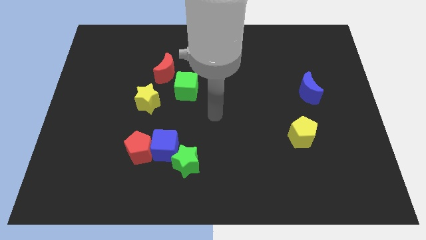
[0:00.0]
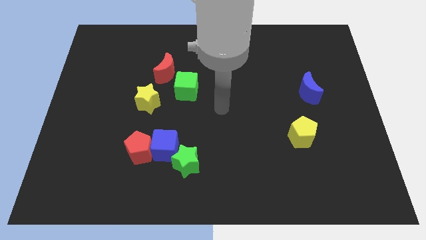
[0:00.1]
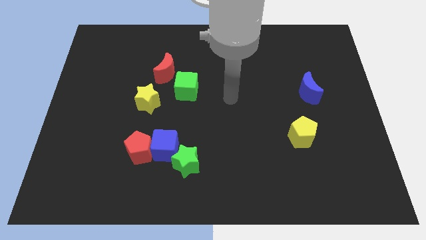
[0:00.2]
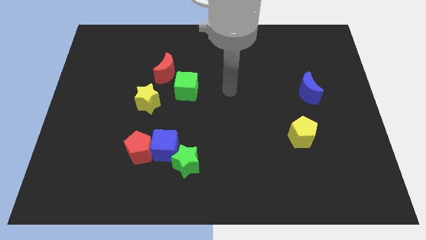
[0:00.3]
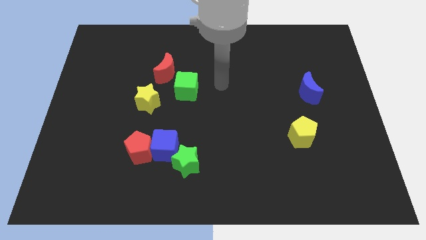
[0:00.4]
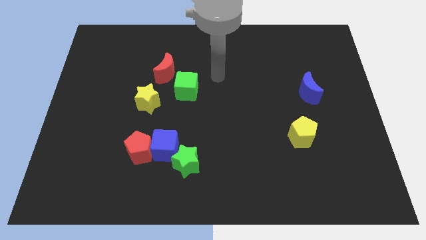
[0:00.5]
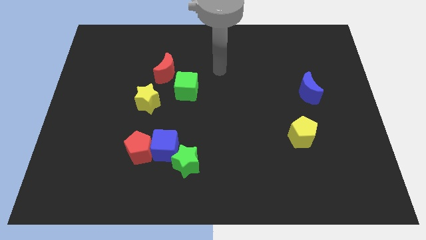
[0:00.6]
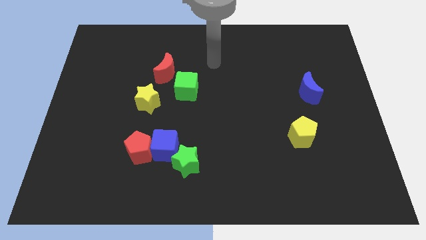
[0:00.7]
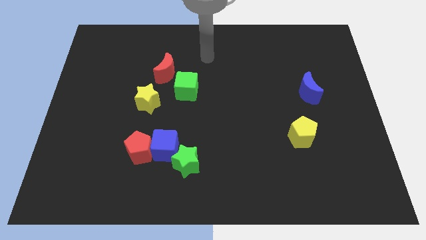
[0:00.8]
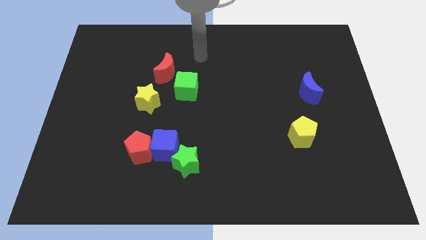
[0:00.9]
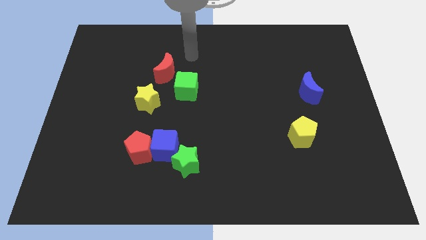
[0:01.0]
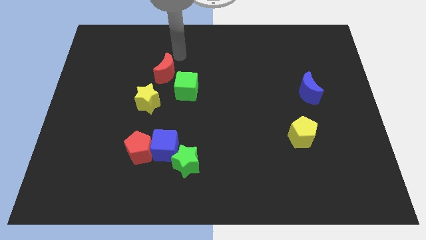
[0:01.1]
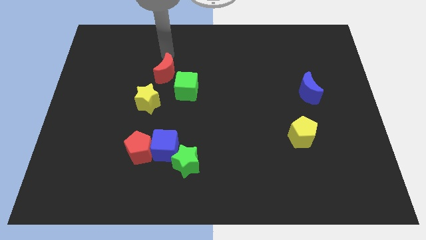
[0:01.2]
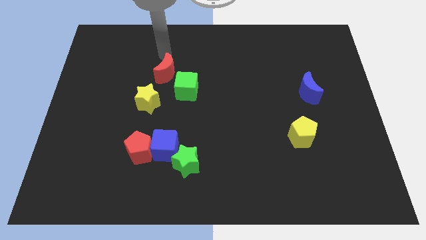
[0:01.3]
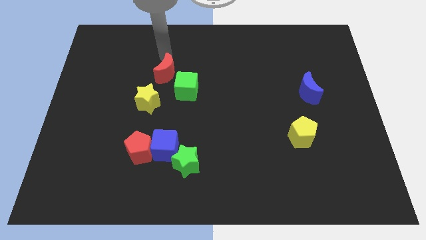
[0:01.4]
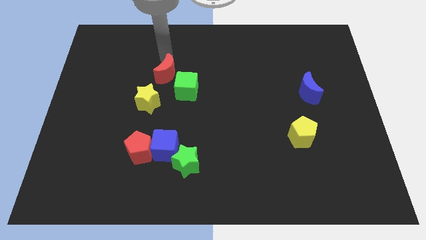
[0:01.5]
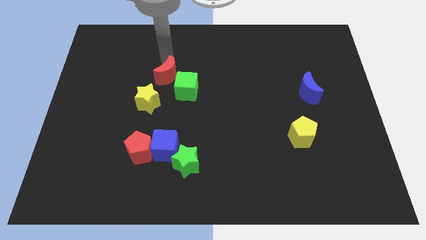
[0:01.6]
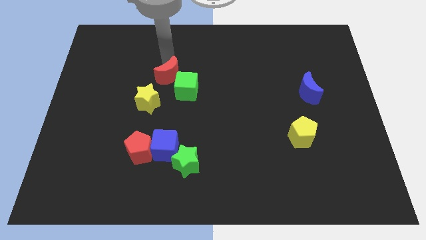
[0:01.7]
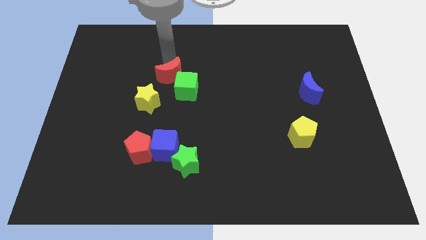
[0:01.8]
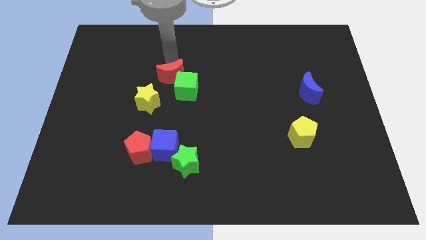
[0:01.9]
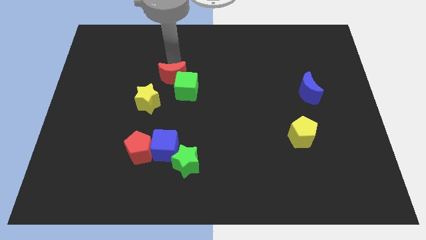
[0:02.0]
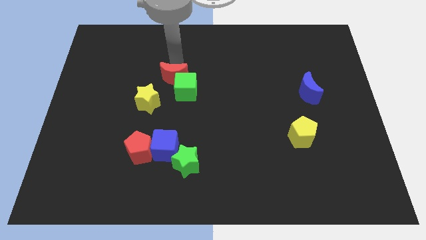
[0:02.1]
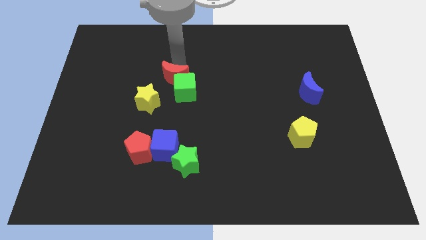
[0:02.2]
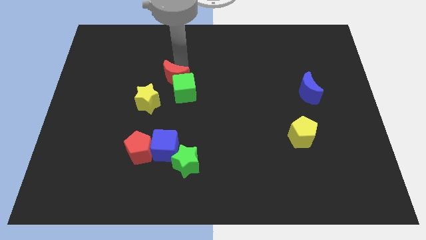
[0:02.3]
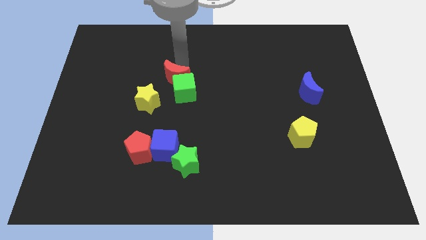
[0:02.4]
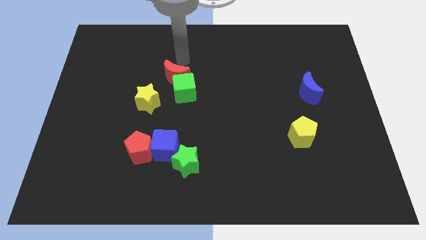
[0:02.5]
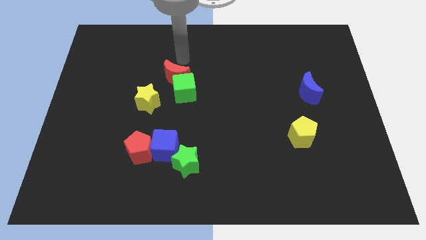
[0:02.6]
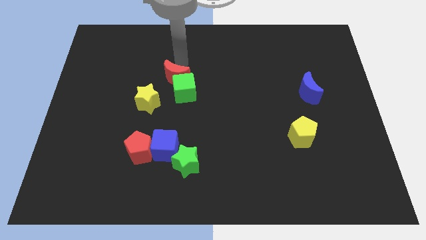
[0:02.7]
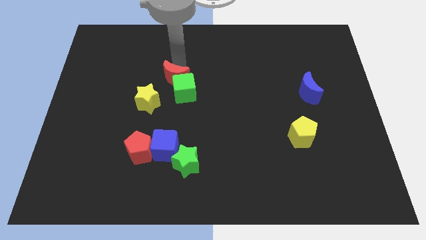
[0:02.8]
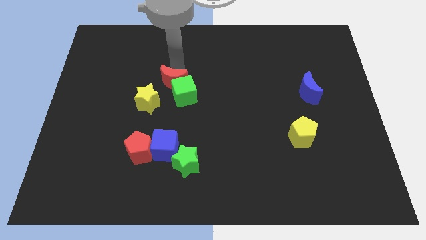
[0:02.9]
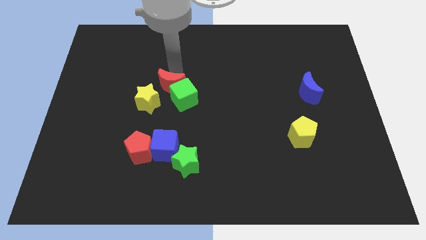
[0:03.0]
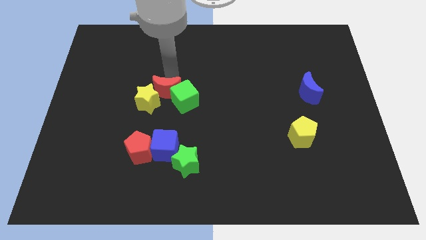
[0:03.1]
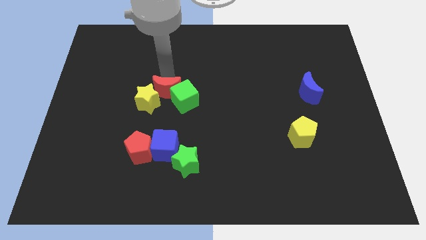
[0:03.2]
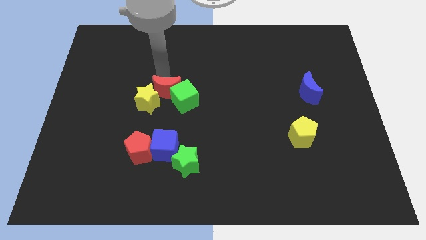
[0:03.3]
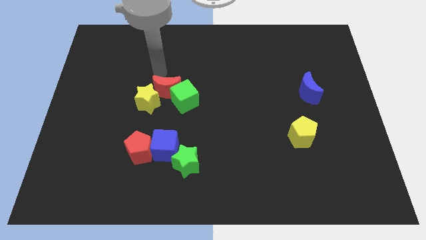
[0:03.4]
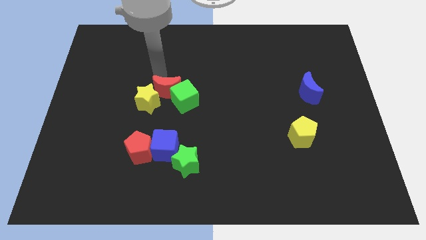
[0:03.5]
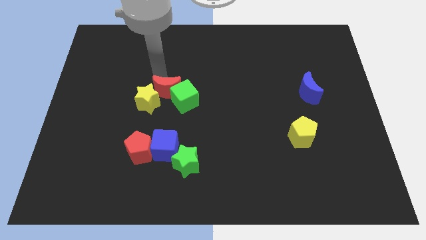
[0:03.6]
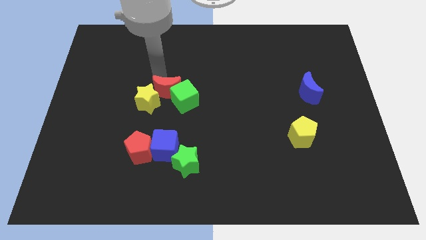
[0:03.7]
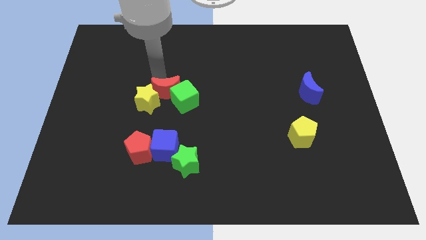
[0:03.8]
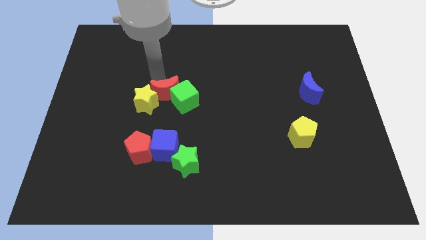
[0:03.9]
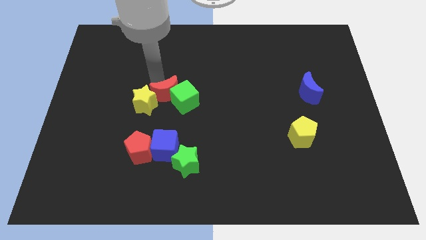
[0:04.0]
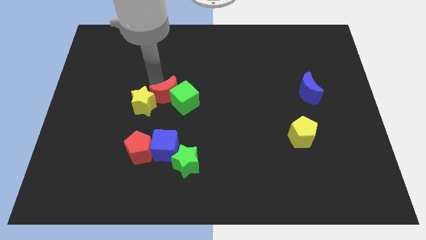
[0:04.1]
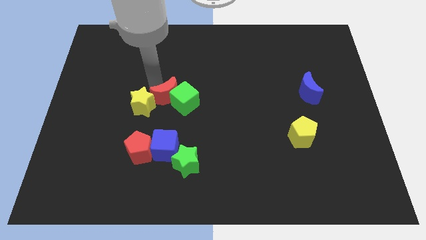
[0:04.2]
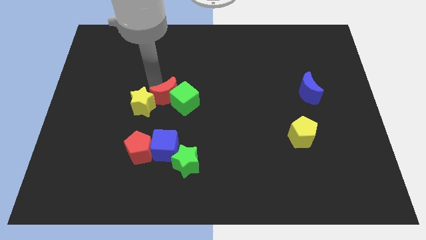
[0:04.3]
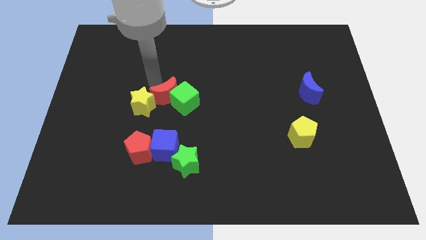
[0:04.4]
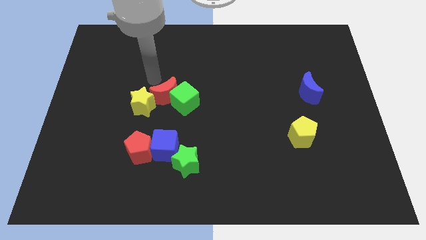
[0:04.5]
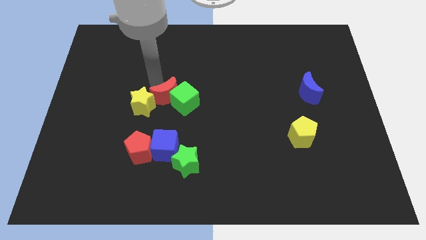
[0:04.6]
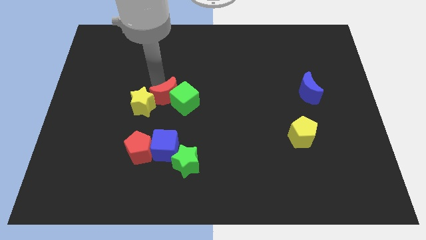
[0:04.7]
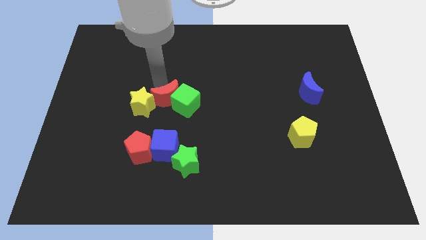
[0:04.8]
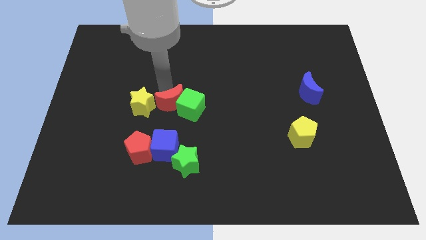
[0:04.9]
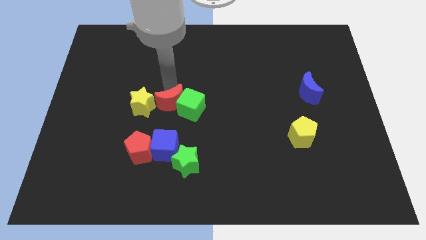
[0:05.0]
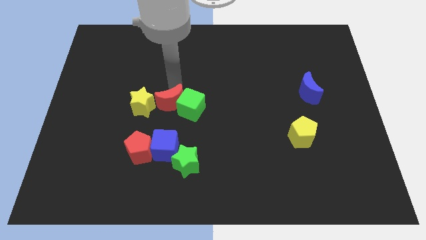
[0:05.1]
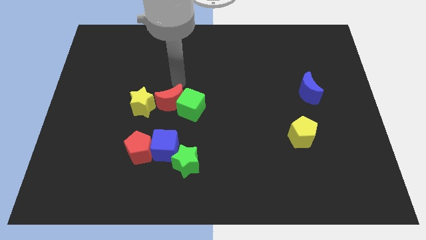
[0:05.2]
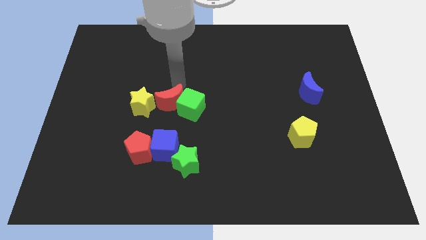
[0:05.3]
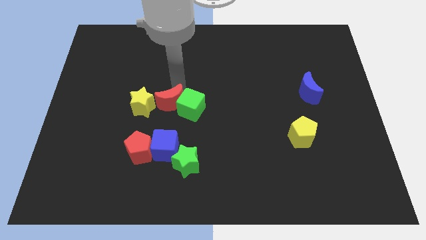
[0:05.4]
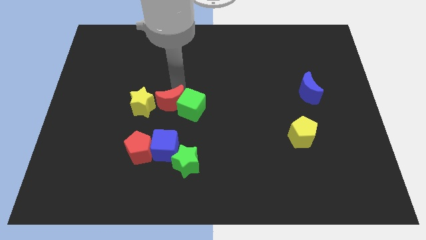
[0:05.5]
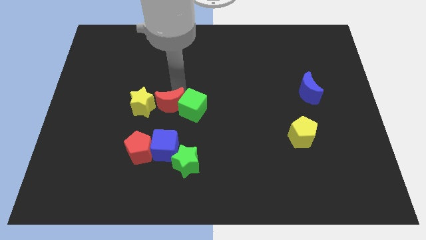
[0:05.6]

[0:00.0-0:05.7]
push the red moon diagonally down and to the right of the yellow star

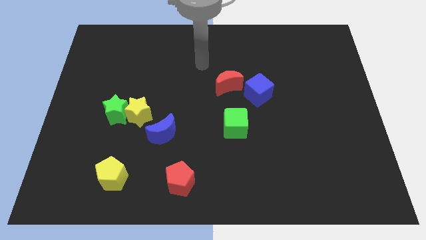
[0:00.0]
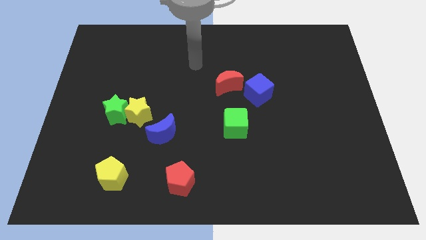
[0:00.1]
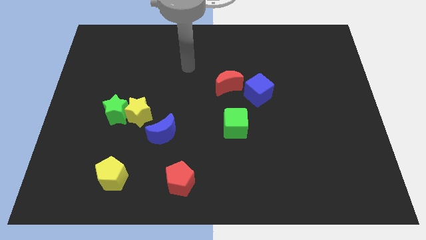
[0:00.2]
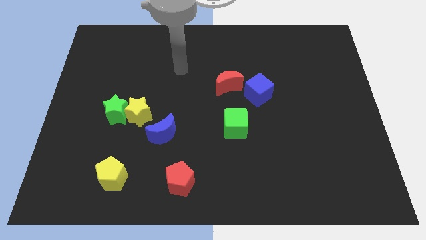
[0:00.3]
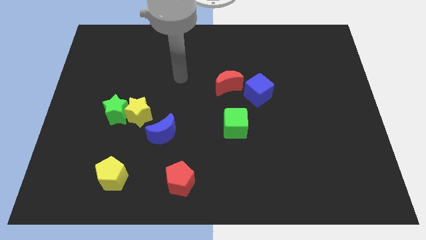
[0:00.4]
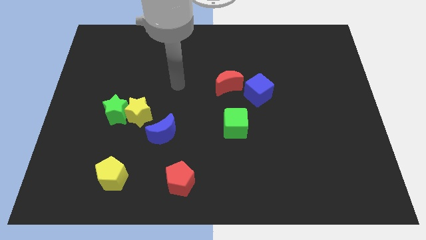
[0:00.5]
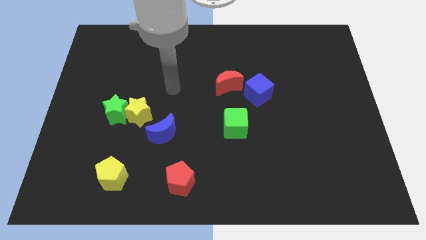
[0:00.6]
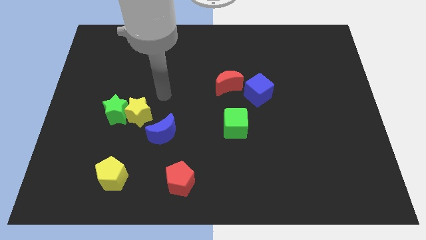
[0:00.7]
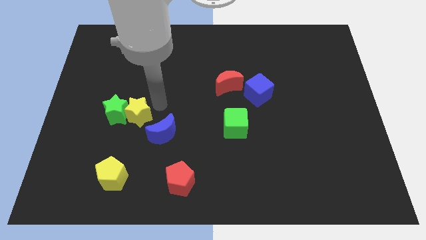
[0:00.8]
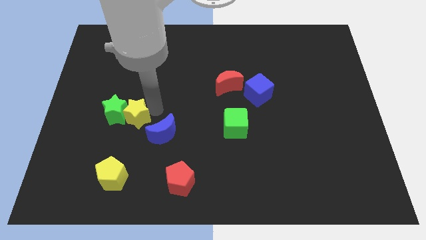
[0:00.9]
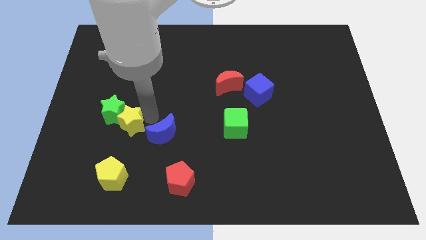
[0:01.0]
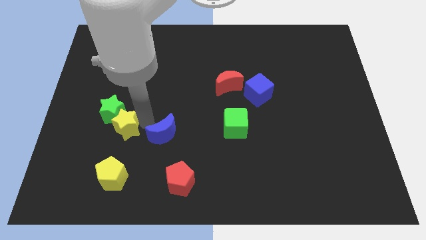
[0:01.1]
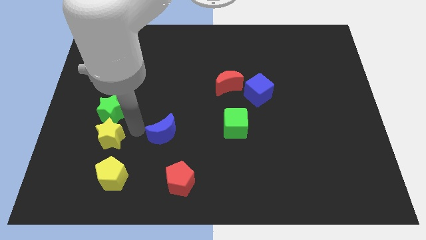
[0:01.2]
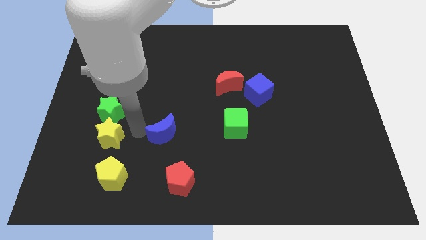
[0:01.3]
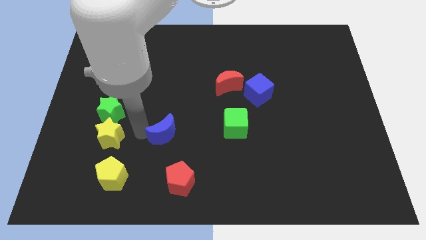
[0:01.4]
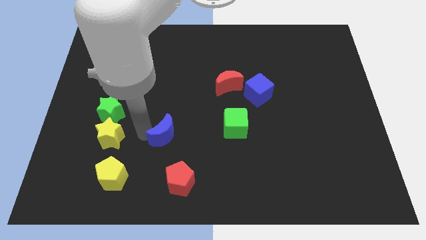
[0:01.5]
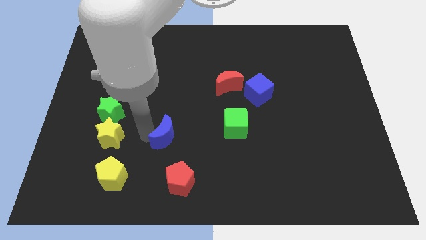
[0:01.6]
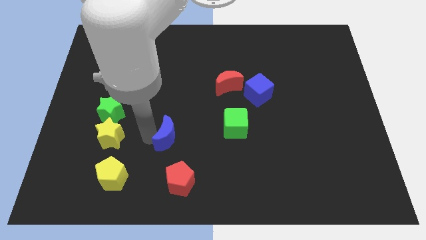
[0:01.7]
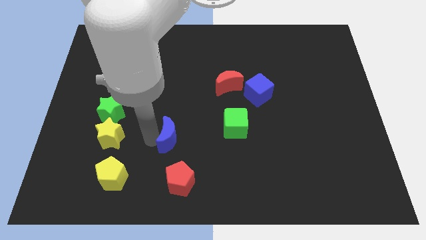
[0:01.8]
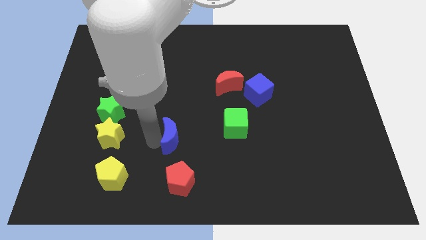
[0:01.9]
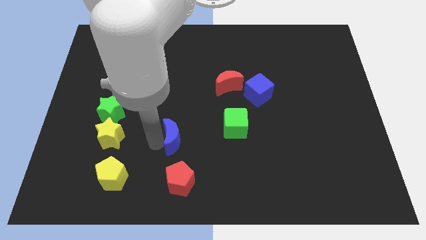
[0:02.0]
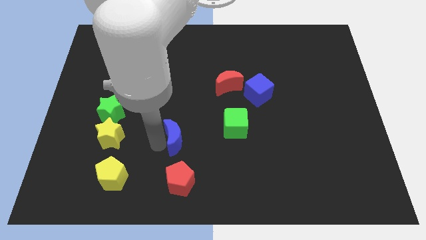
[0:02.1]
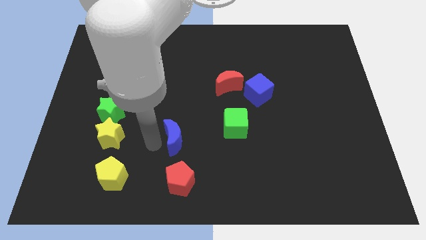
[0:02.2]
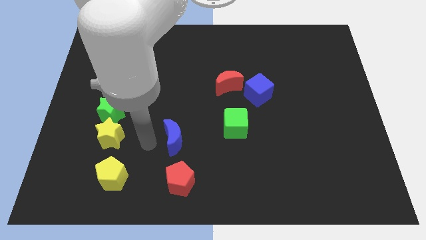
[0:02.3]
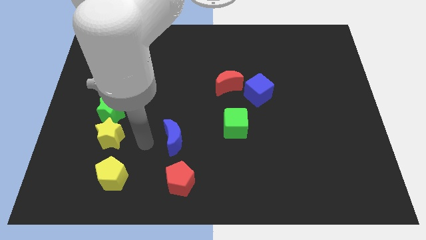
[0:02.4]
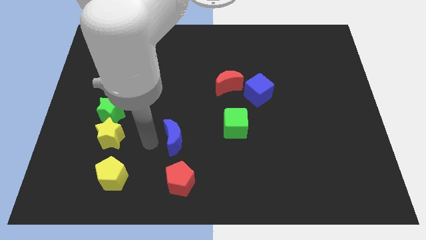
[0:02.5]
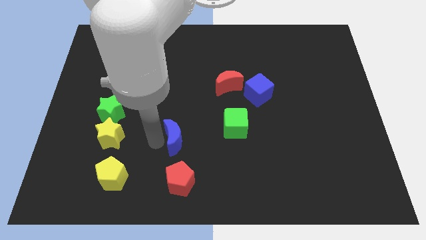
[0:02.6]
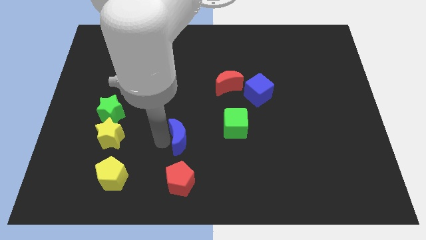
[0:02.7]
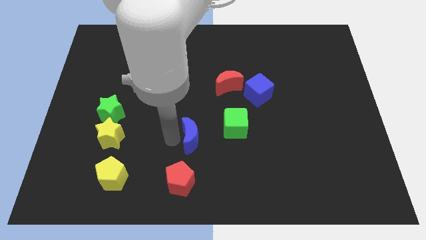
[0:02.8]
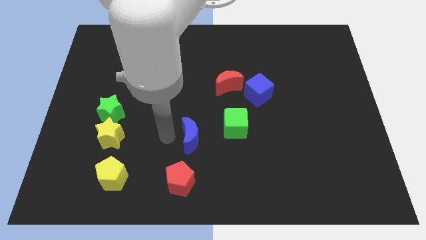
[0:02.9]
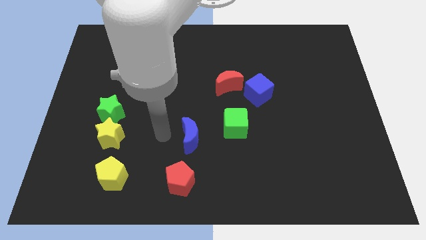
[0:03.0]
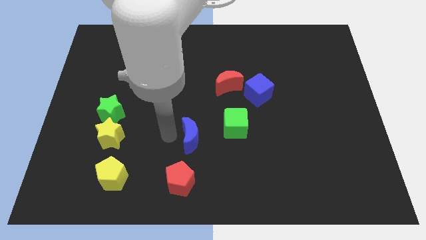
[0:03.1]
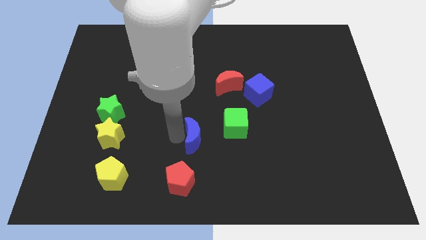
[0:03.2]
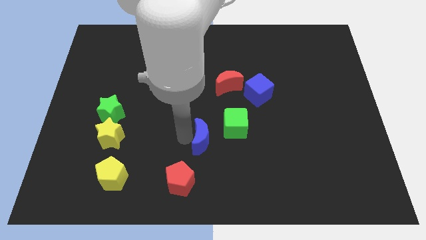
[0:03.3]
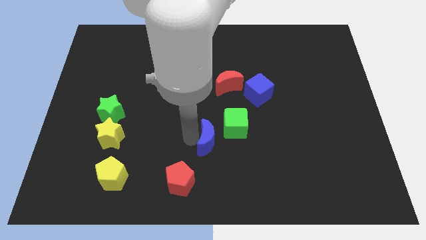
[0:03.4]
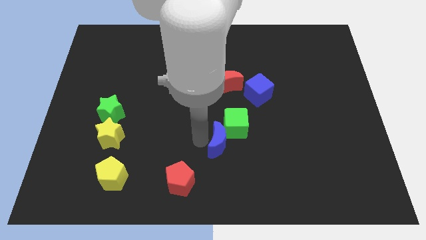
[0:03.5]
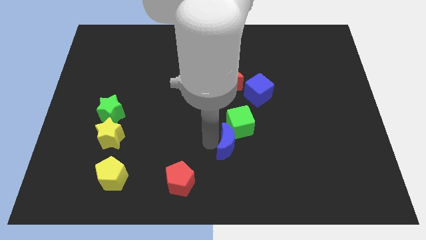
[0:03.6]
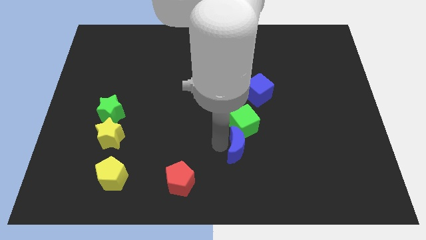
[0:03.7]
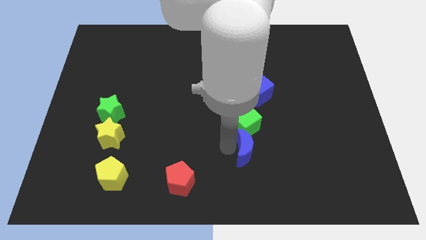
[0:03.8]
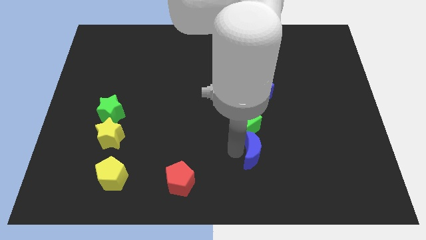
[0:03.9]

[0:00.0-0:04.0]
put the blue moon to the bottom right side of the green cube
